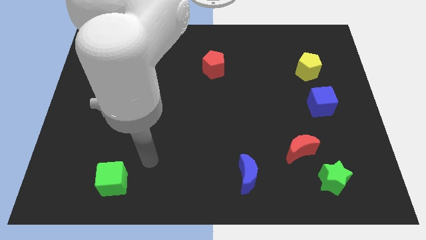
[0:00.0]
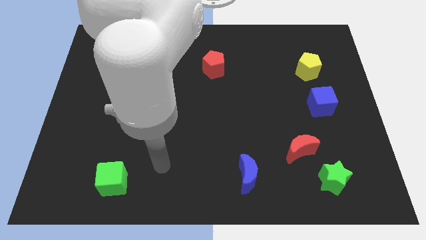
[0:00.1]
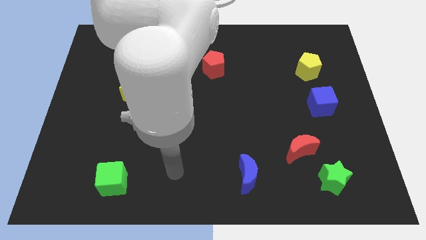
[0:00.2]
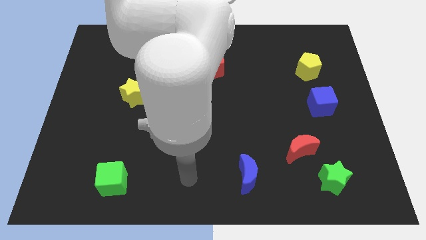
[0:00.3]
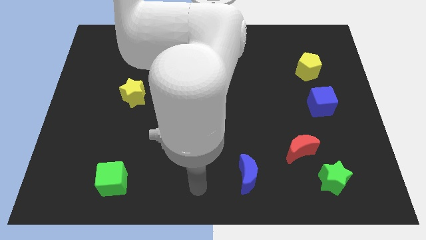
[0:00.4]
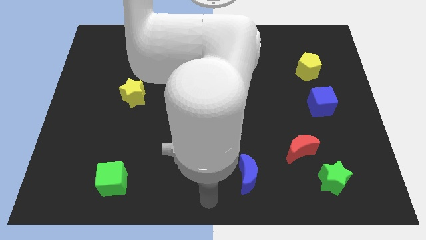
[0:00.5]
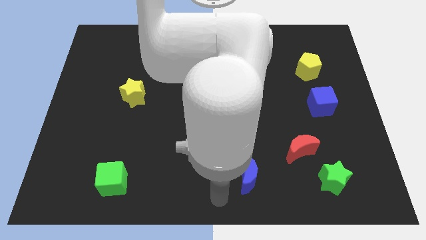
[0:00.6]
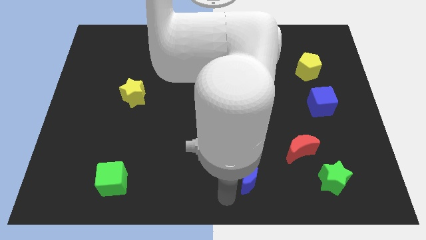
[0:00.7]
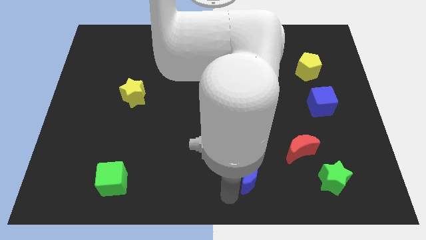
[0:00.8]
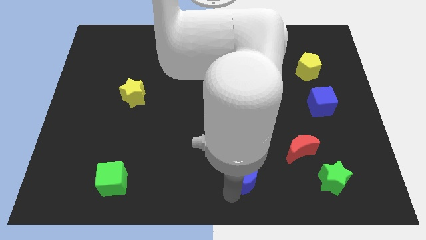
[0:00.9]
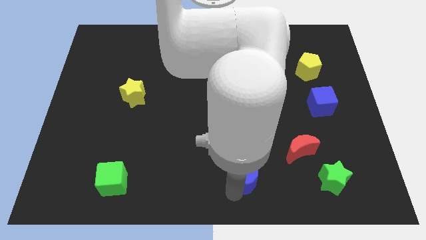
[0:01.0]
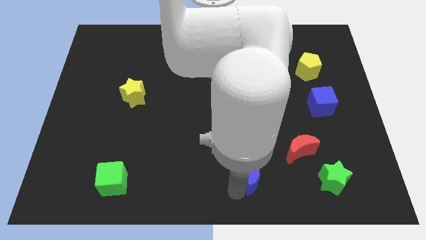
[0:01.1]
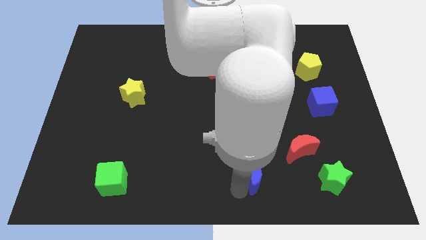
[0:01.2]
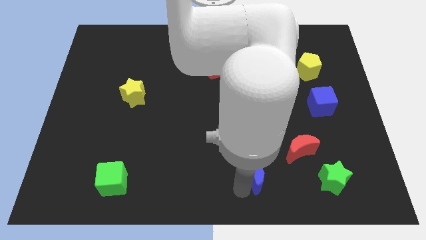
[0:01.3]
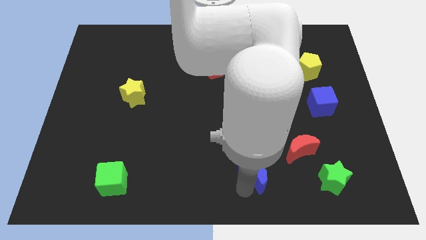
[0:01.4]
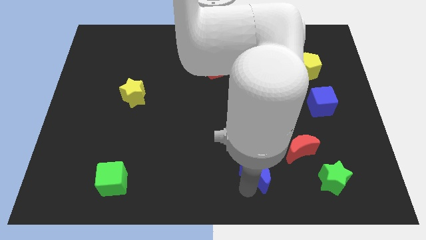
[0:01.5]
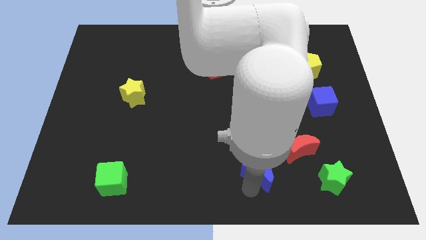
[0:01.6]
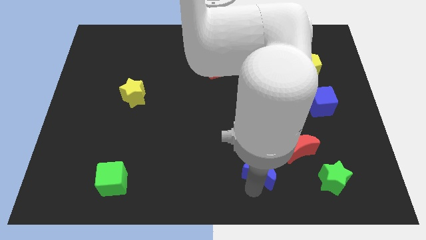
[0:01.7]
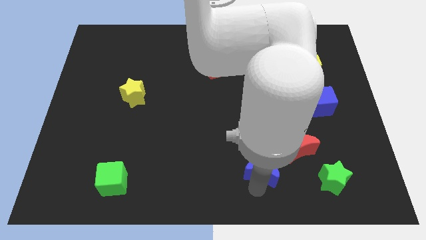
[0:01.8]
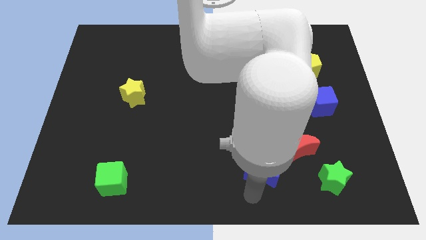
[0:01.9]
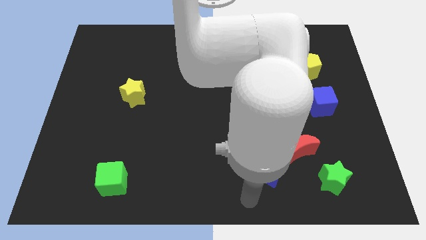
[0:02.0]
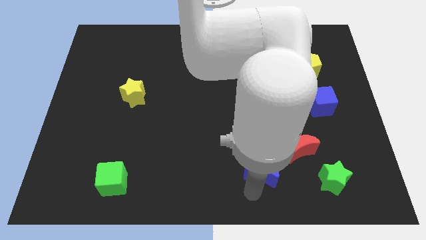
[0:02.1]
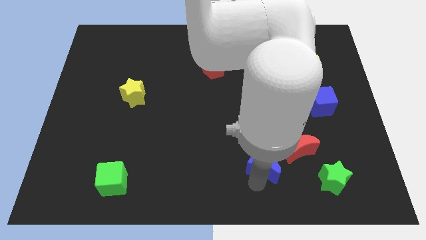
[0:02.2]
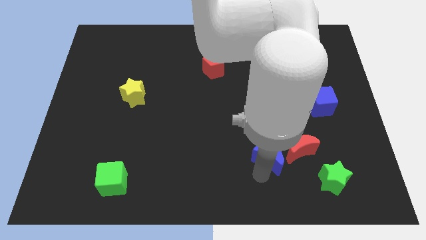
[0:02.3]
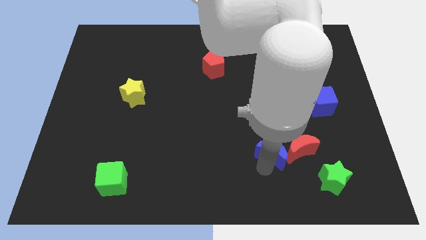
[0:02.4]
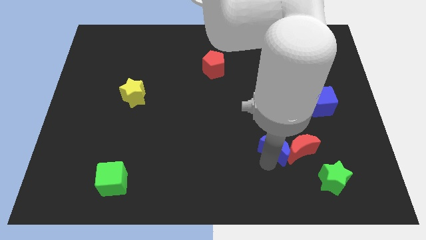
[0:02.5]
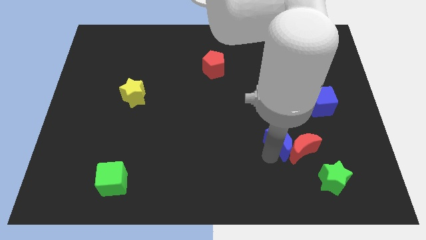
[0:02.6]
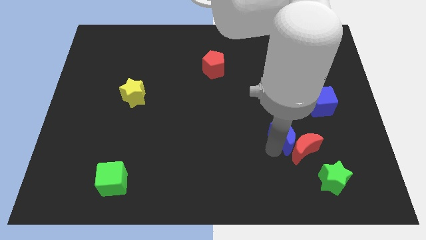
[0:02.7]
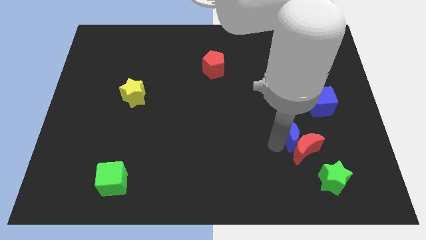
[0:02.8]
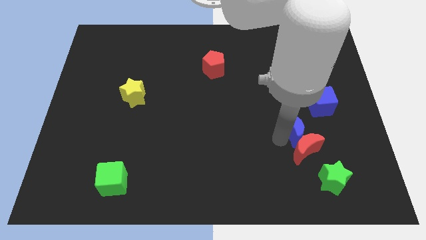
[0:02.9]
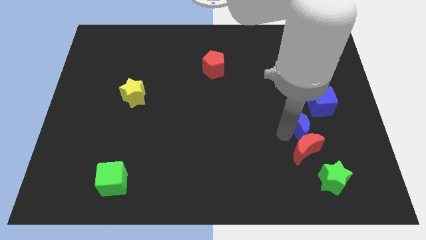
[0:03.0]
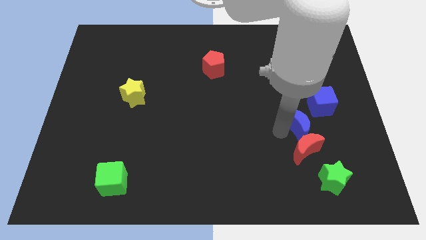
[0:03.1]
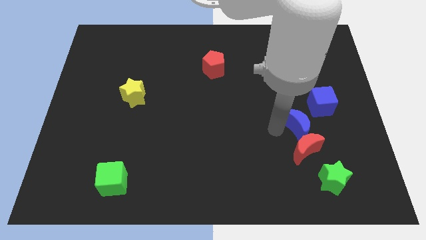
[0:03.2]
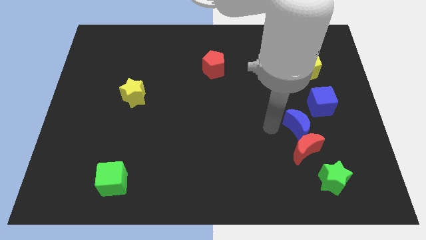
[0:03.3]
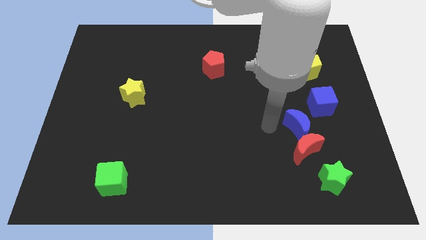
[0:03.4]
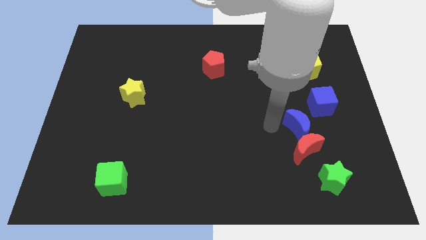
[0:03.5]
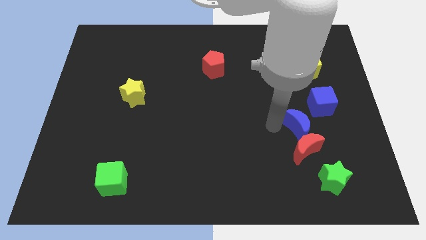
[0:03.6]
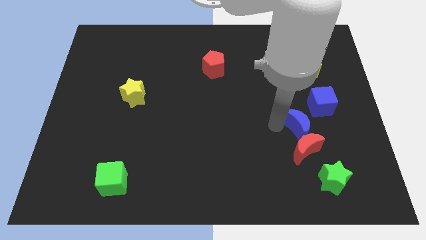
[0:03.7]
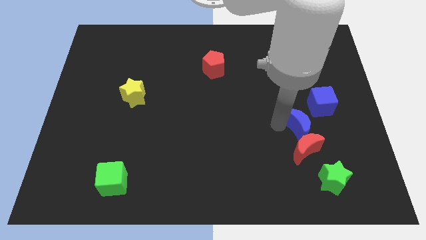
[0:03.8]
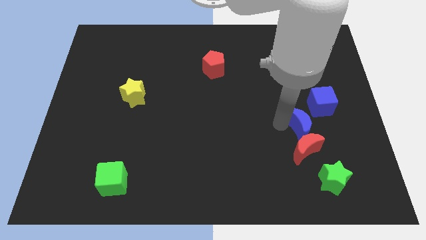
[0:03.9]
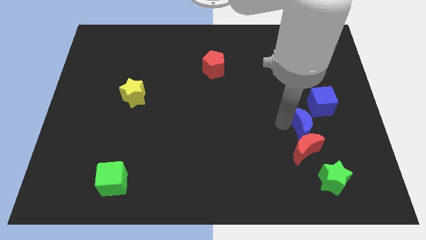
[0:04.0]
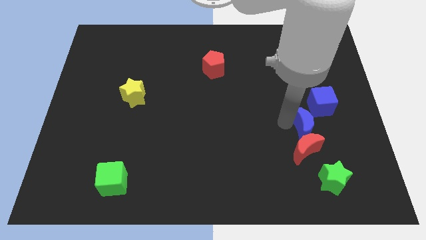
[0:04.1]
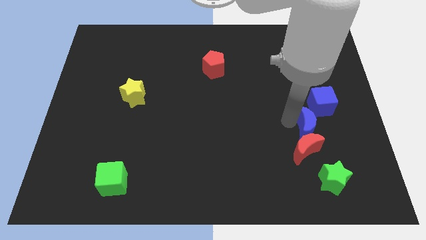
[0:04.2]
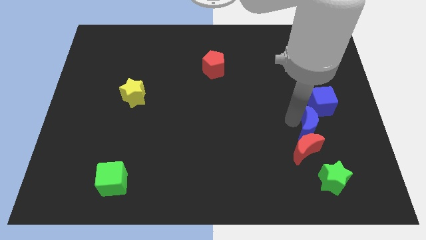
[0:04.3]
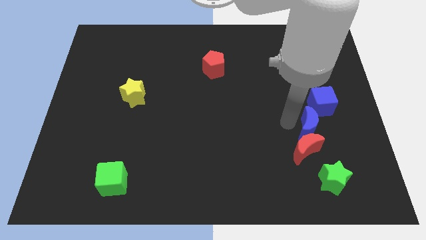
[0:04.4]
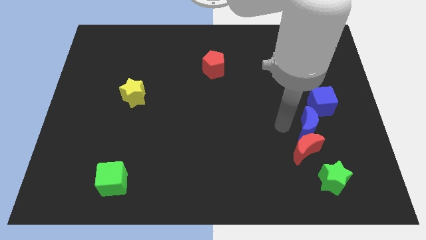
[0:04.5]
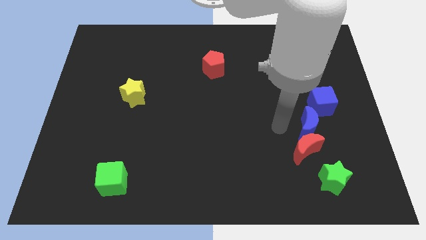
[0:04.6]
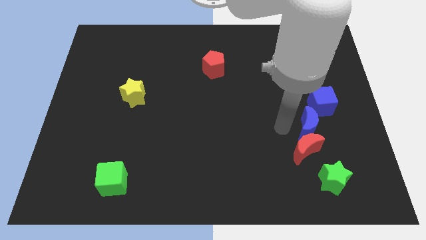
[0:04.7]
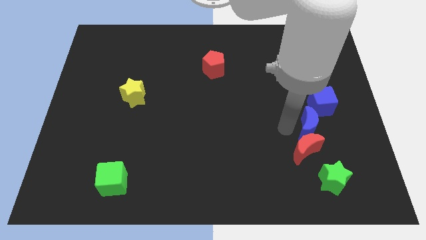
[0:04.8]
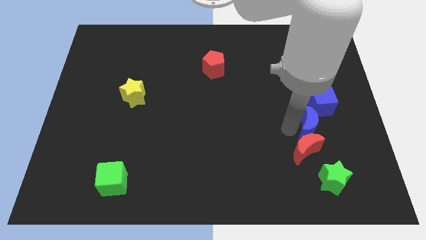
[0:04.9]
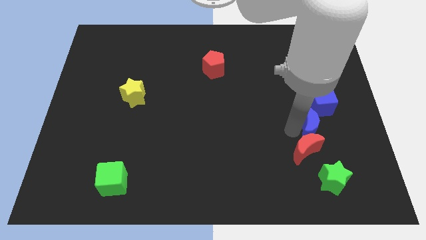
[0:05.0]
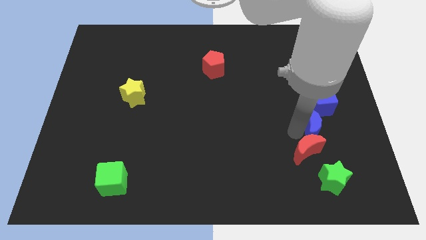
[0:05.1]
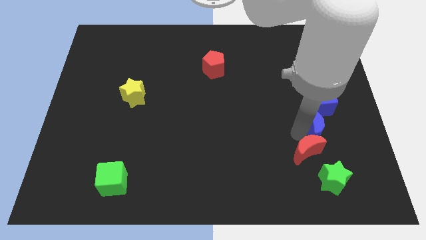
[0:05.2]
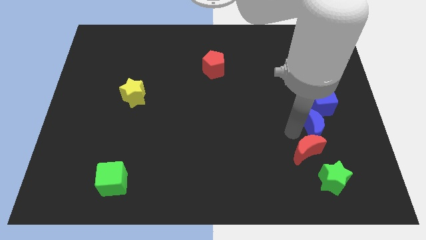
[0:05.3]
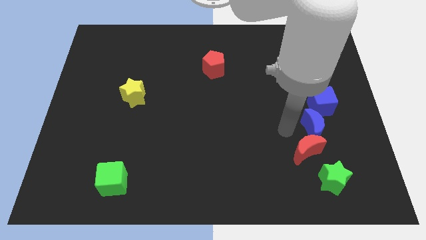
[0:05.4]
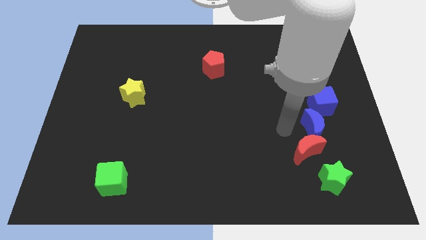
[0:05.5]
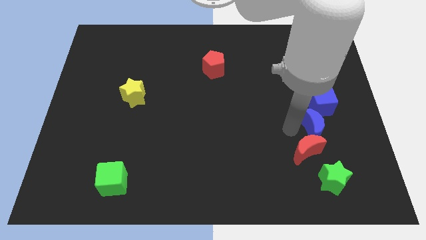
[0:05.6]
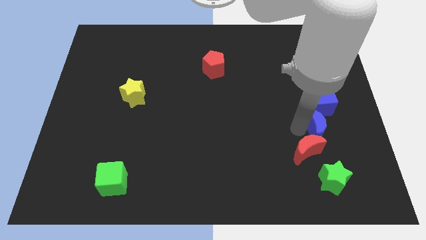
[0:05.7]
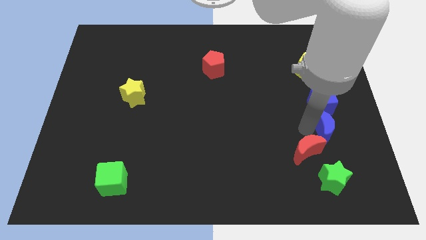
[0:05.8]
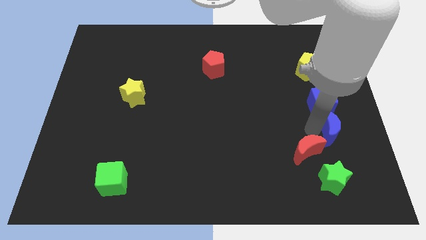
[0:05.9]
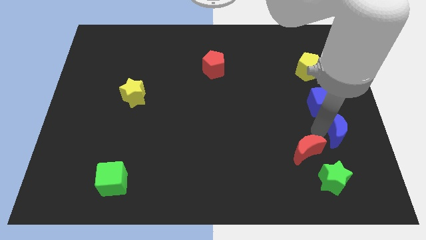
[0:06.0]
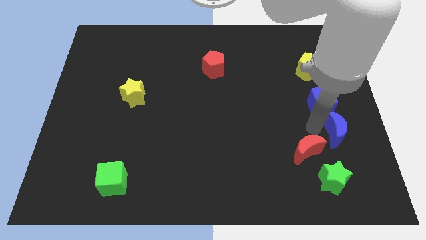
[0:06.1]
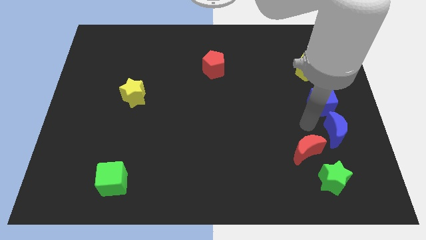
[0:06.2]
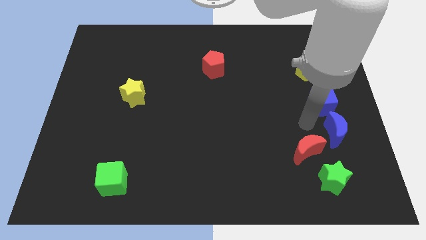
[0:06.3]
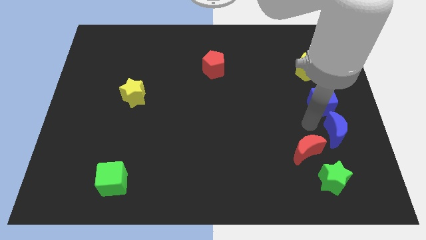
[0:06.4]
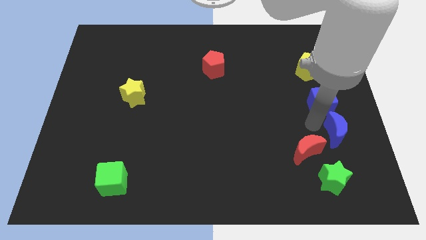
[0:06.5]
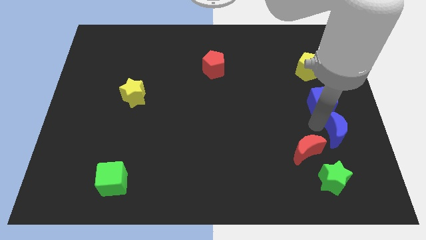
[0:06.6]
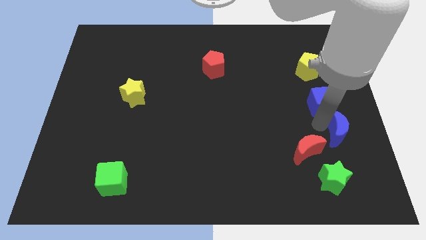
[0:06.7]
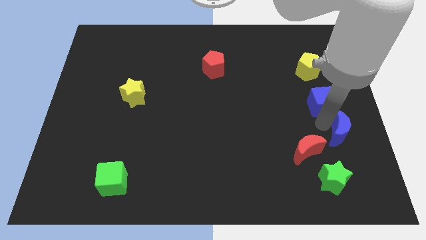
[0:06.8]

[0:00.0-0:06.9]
push the blue moon to the center right
